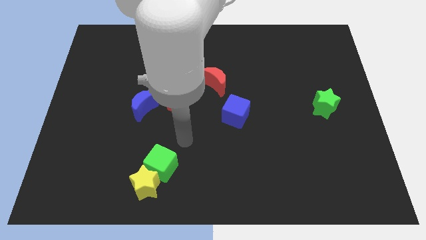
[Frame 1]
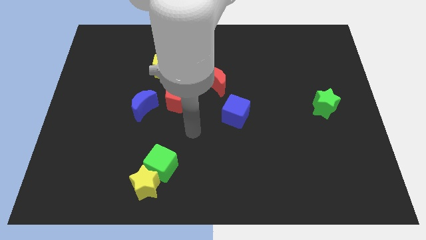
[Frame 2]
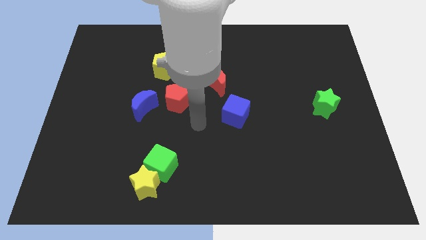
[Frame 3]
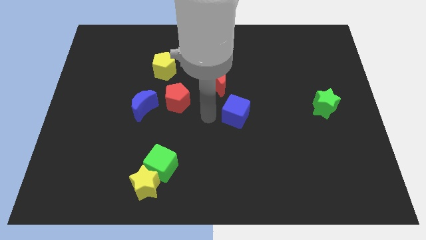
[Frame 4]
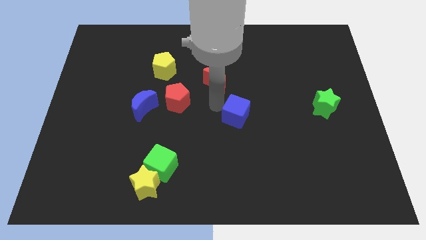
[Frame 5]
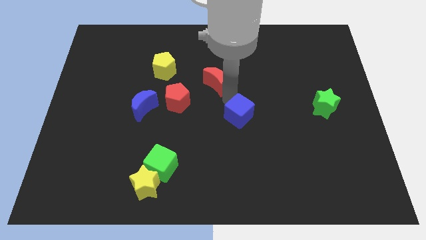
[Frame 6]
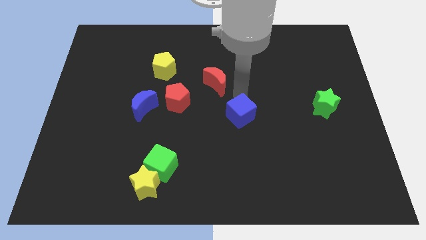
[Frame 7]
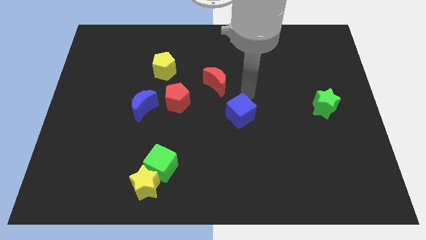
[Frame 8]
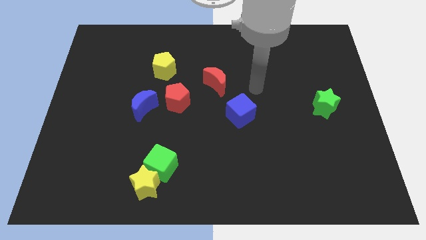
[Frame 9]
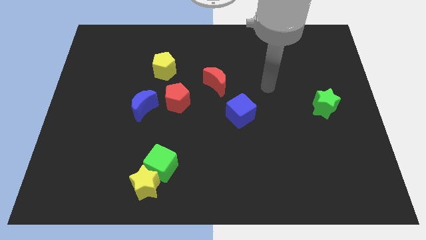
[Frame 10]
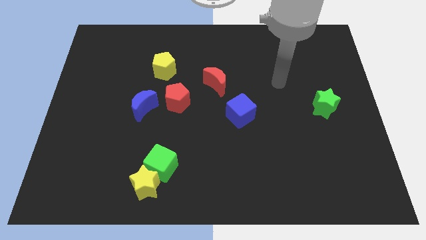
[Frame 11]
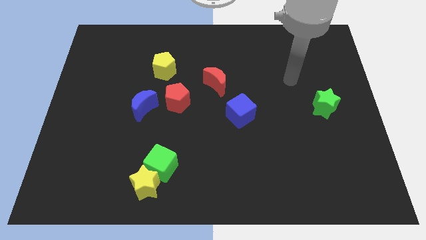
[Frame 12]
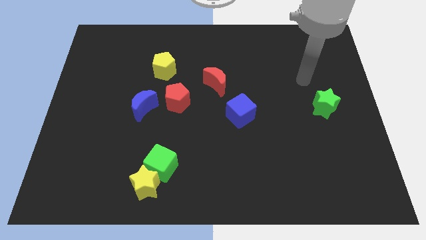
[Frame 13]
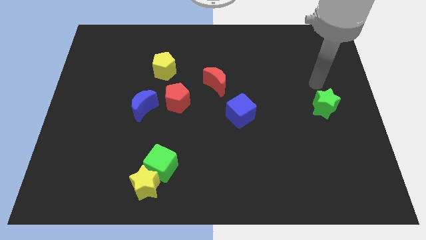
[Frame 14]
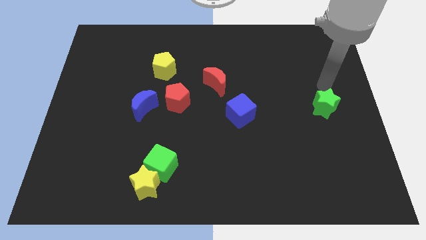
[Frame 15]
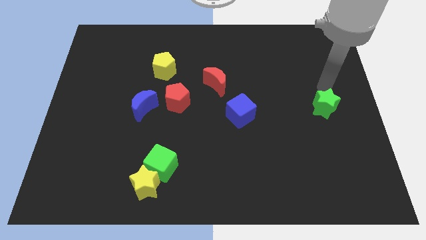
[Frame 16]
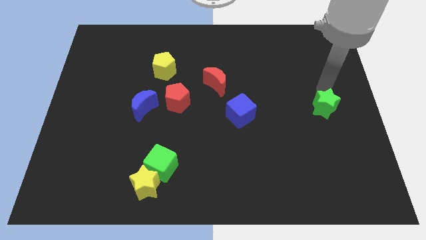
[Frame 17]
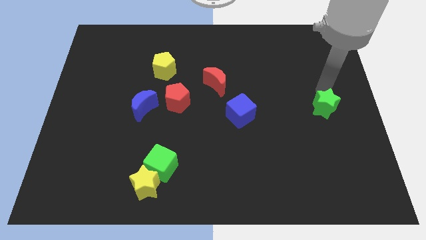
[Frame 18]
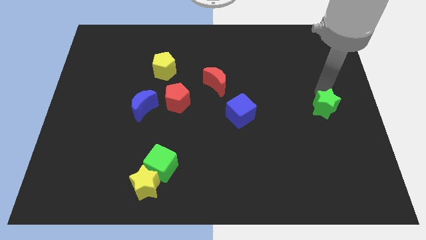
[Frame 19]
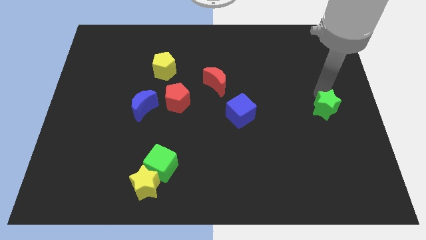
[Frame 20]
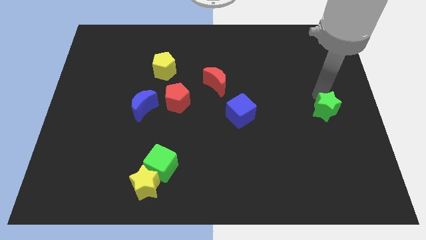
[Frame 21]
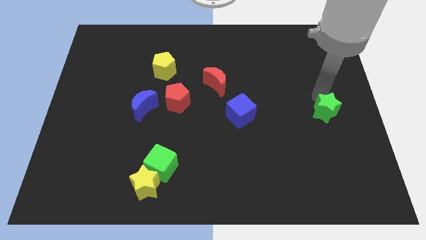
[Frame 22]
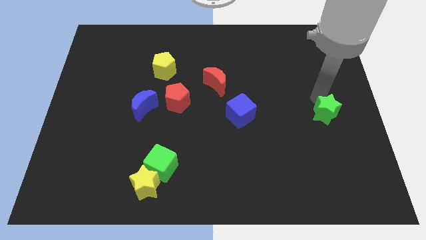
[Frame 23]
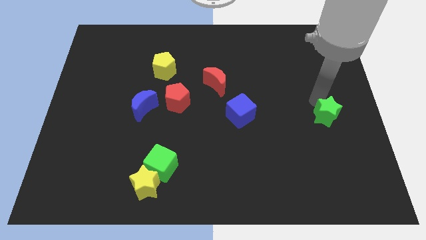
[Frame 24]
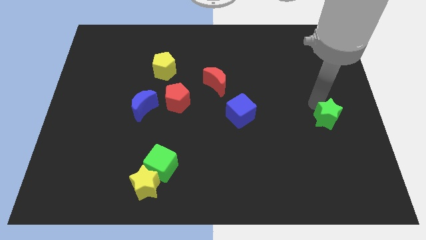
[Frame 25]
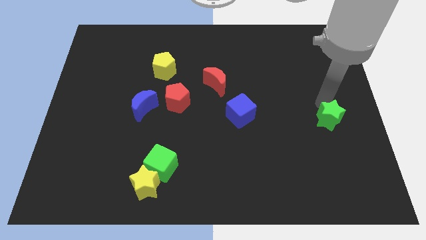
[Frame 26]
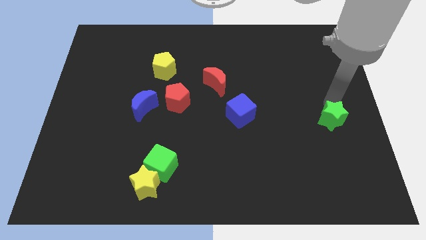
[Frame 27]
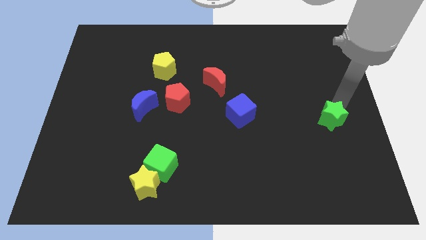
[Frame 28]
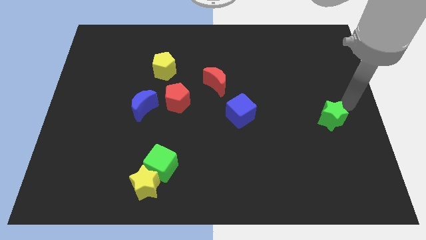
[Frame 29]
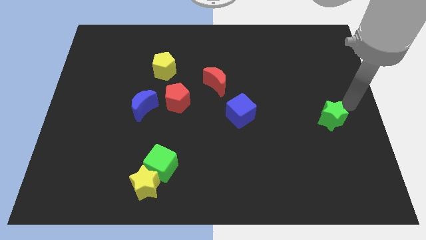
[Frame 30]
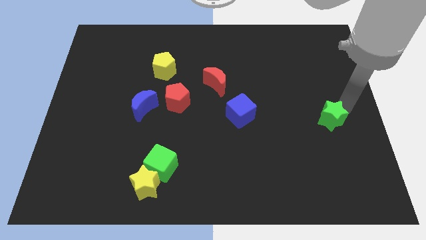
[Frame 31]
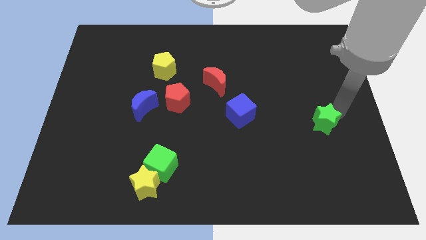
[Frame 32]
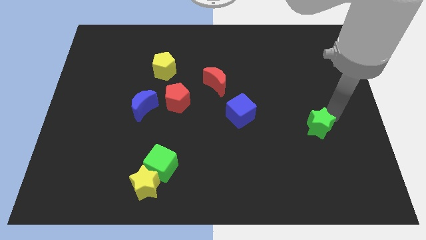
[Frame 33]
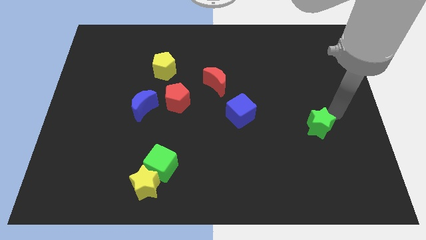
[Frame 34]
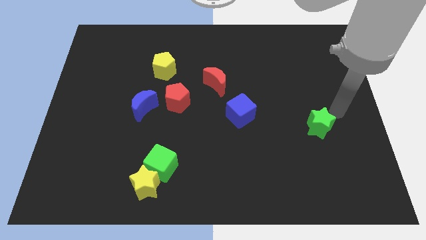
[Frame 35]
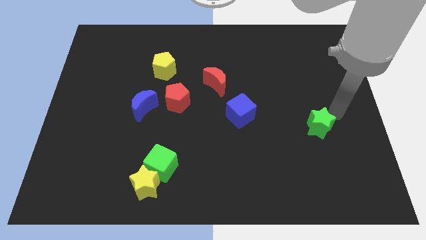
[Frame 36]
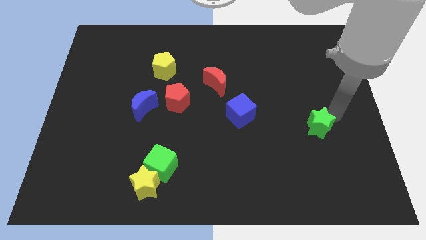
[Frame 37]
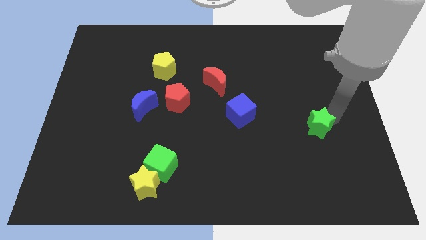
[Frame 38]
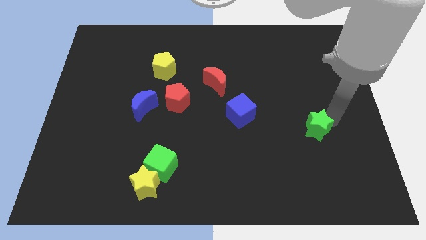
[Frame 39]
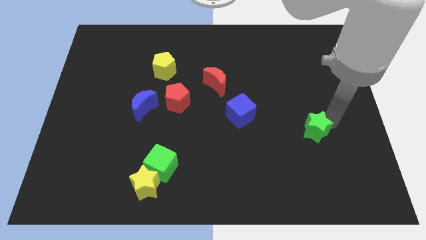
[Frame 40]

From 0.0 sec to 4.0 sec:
push the green star a bit down and then to the left

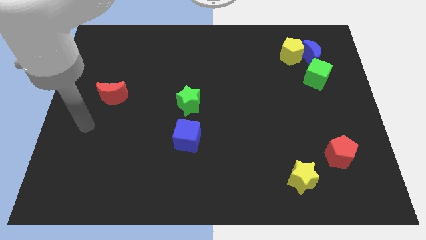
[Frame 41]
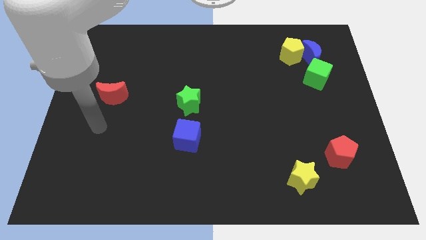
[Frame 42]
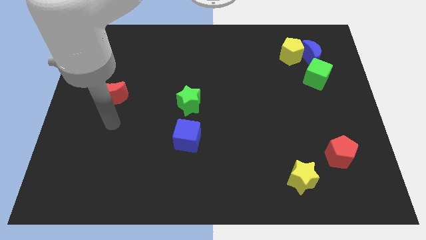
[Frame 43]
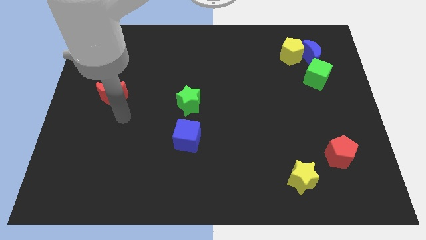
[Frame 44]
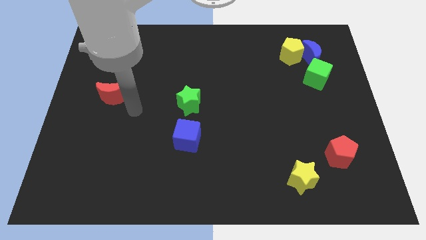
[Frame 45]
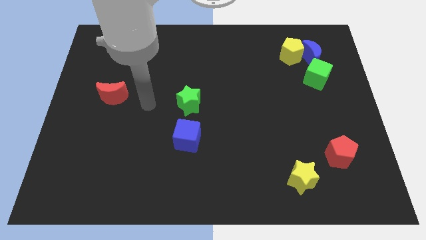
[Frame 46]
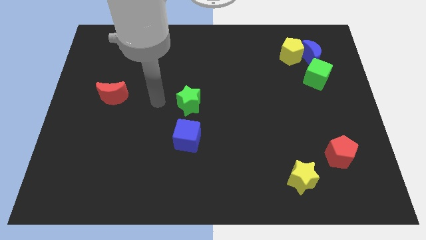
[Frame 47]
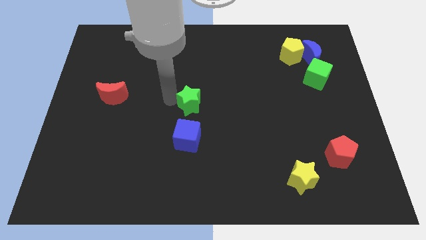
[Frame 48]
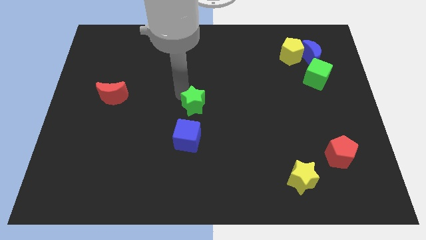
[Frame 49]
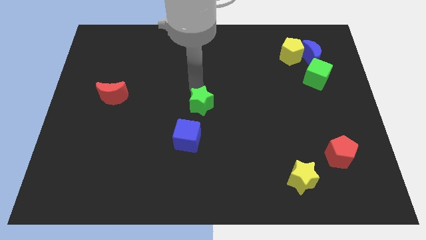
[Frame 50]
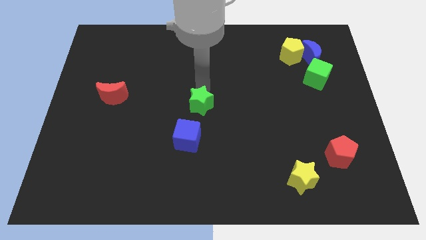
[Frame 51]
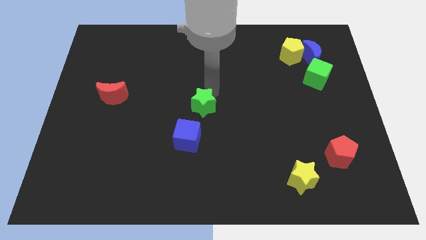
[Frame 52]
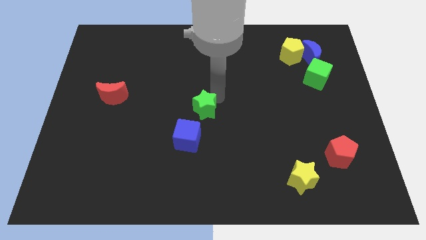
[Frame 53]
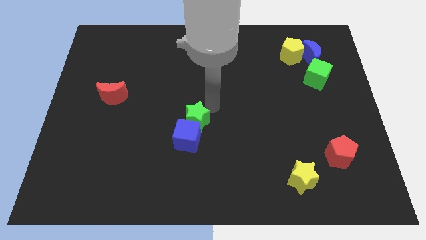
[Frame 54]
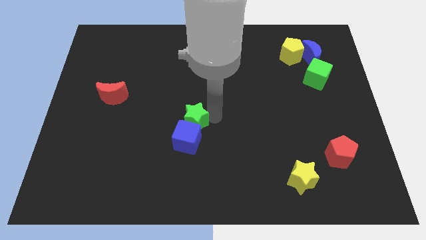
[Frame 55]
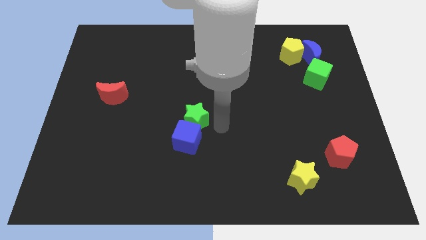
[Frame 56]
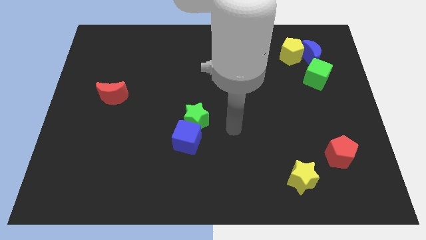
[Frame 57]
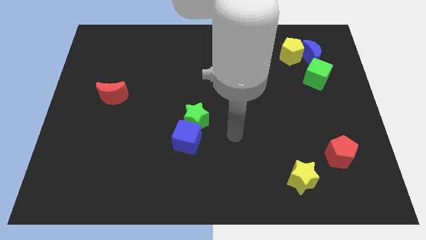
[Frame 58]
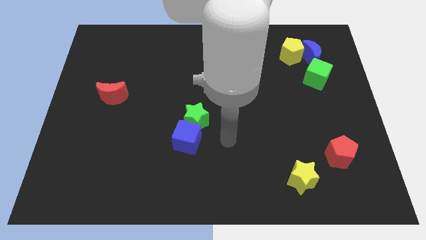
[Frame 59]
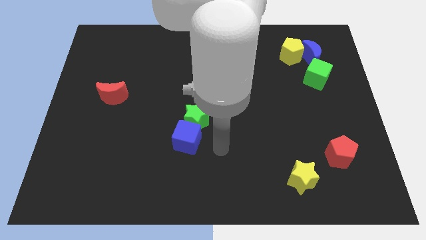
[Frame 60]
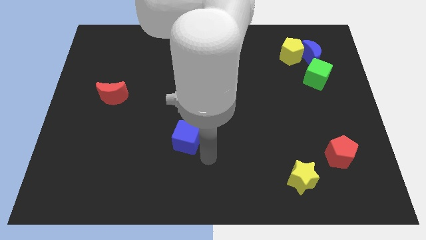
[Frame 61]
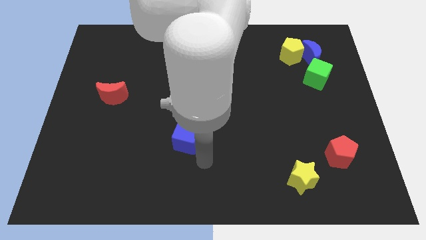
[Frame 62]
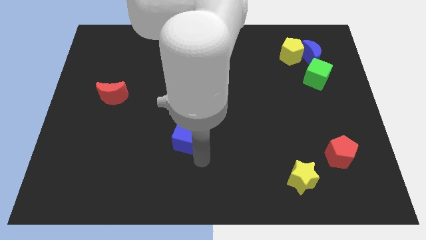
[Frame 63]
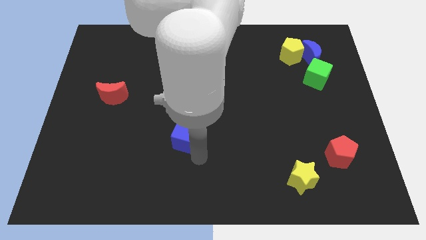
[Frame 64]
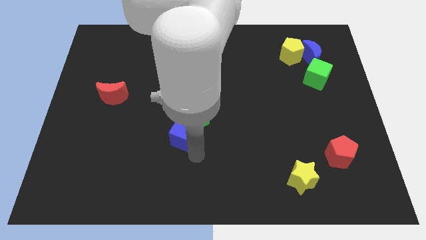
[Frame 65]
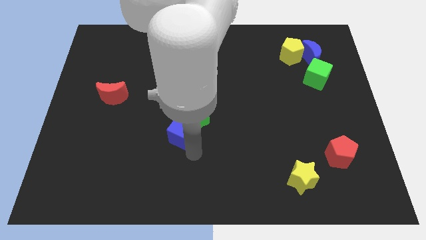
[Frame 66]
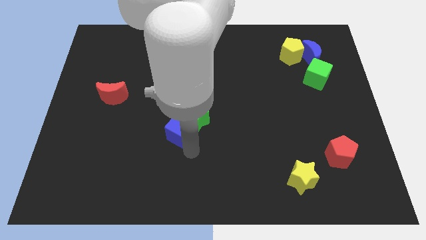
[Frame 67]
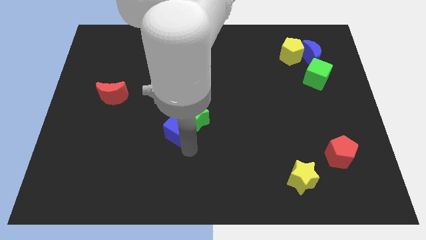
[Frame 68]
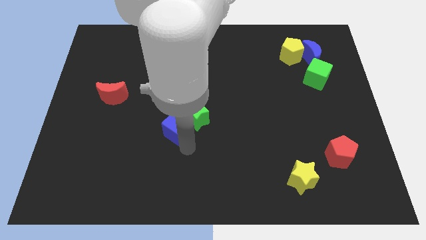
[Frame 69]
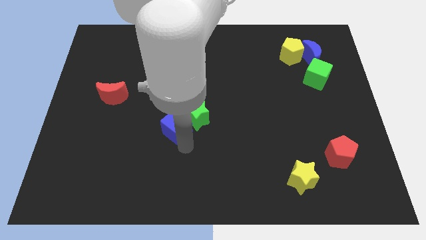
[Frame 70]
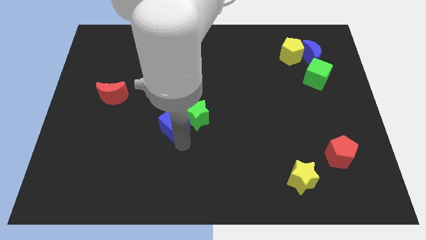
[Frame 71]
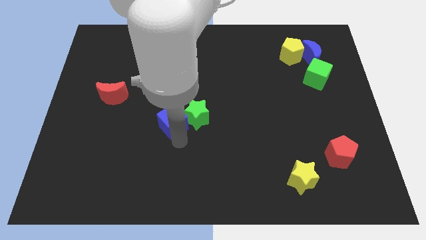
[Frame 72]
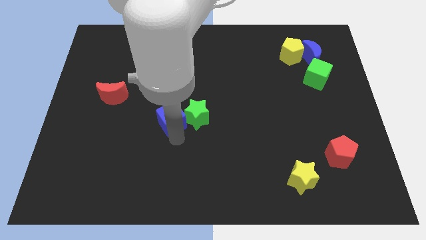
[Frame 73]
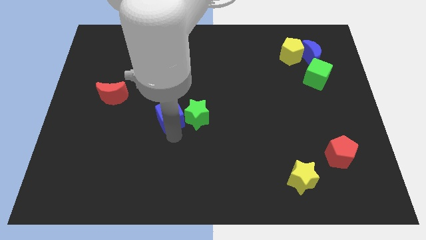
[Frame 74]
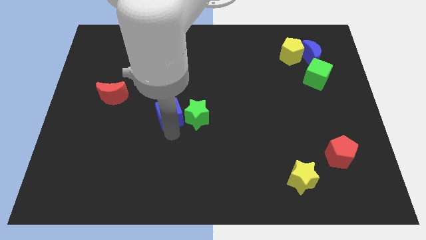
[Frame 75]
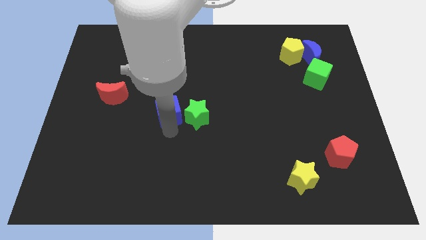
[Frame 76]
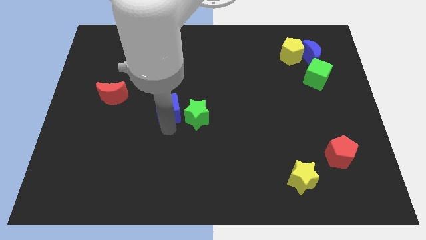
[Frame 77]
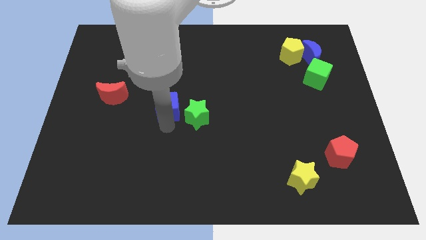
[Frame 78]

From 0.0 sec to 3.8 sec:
slide the blue cube slightly up

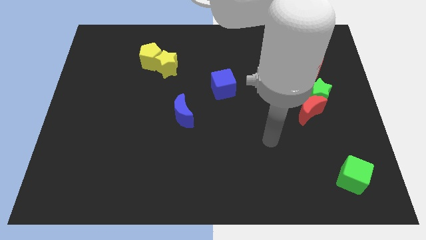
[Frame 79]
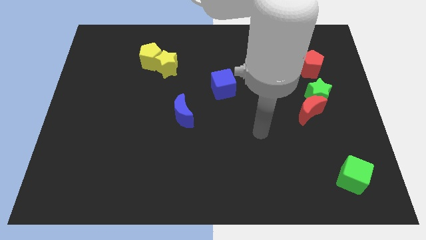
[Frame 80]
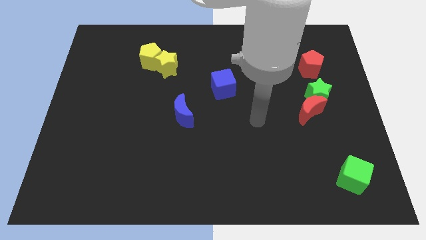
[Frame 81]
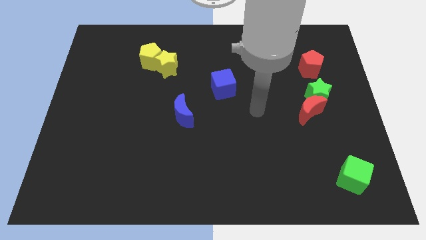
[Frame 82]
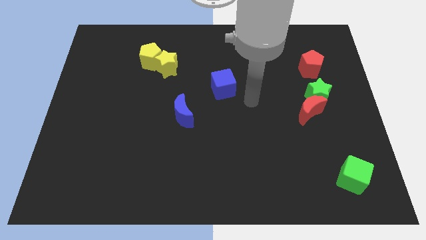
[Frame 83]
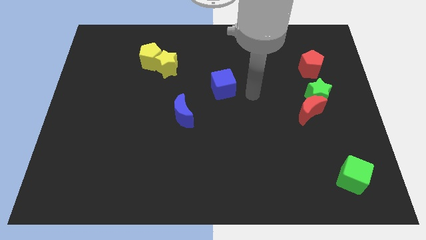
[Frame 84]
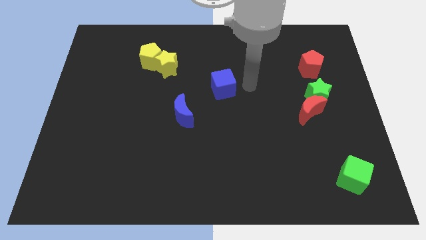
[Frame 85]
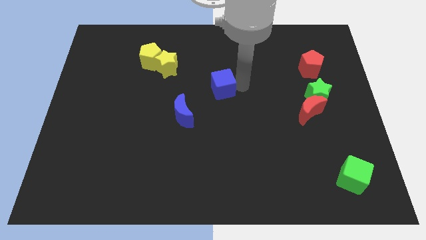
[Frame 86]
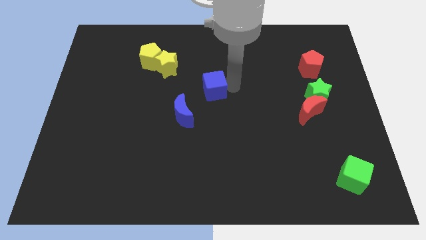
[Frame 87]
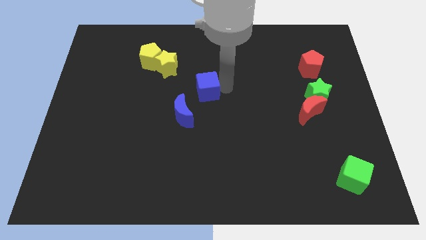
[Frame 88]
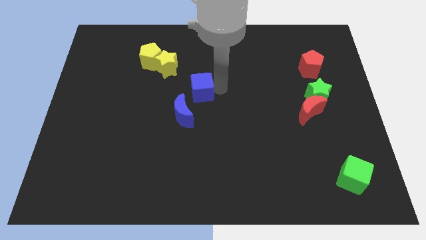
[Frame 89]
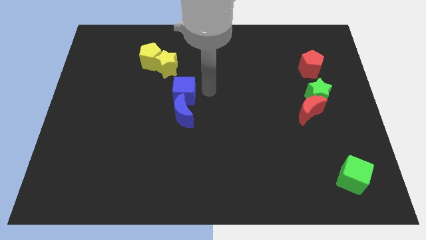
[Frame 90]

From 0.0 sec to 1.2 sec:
move the blue cube to the left slightly
